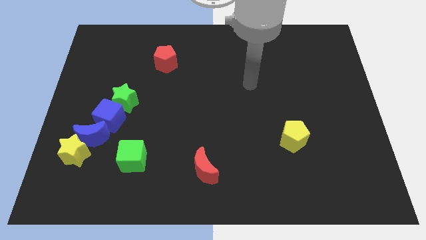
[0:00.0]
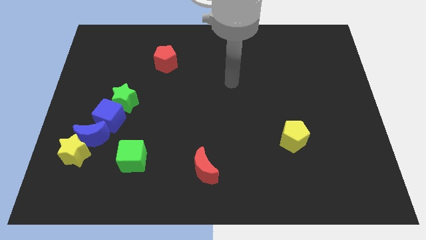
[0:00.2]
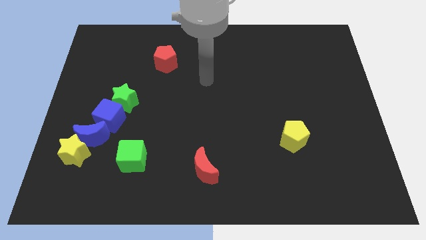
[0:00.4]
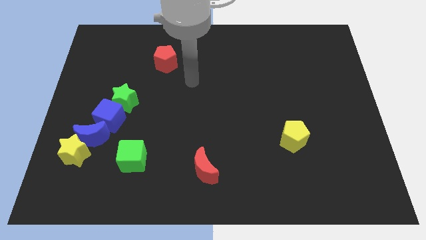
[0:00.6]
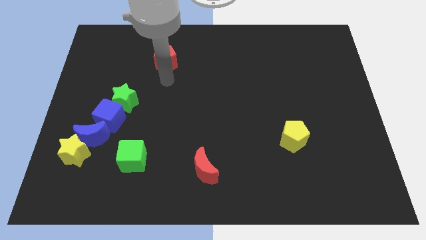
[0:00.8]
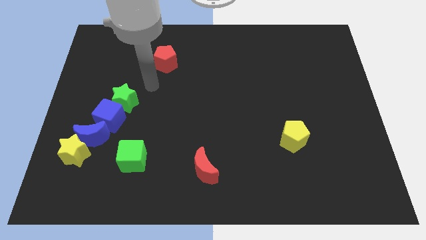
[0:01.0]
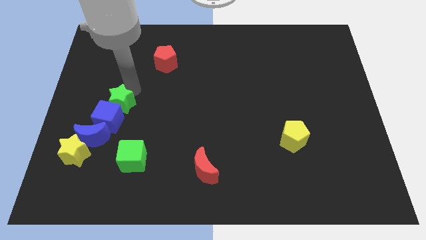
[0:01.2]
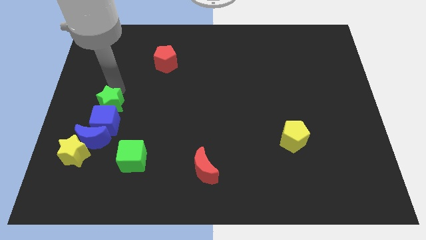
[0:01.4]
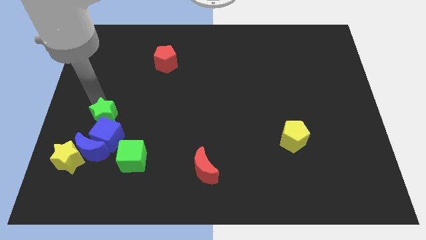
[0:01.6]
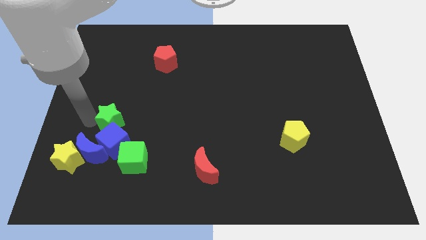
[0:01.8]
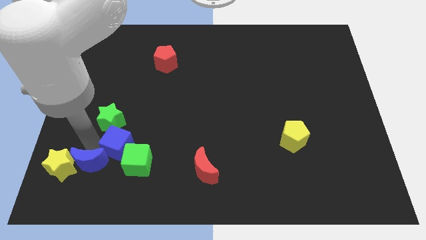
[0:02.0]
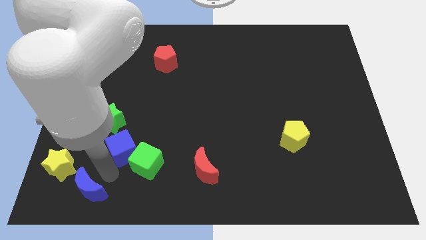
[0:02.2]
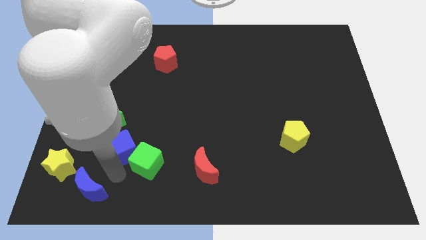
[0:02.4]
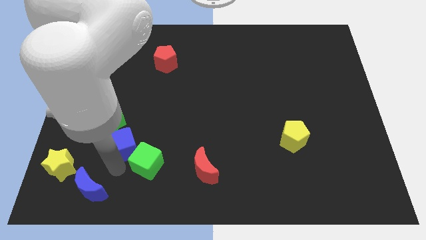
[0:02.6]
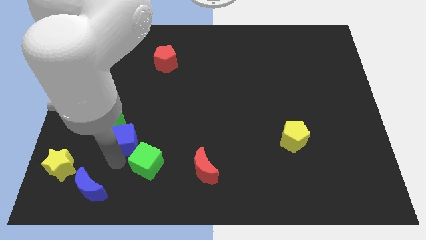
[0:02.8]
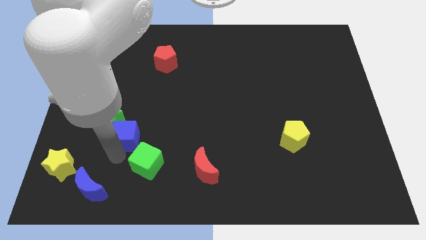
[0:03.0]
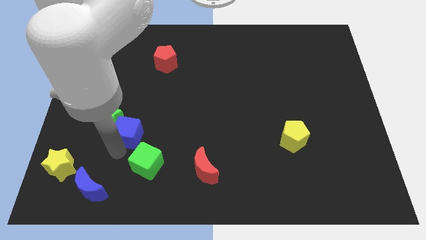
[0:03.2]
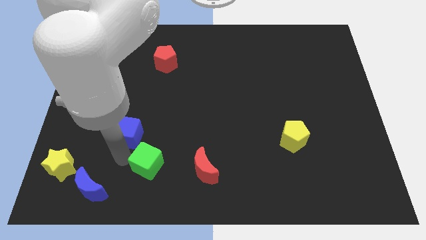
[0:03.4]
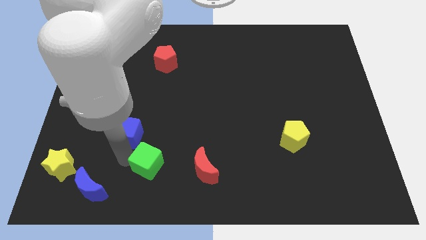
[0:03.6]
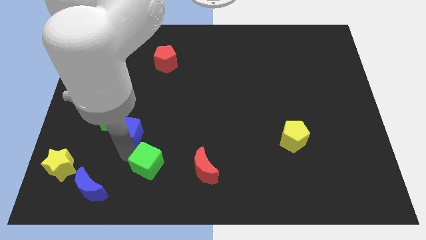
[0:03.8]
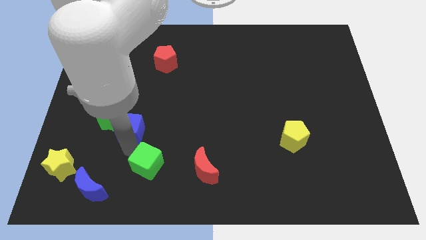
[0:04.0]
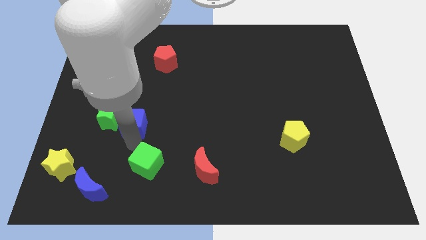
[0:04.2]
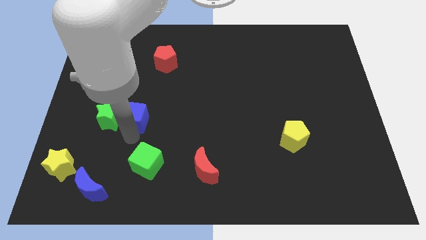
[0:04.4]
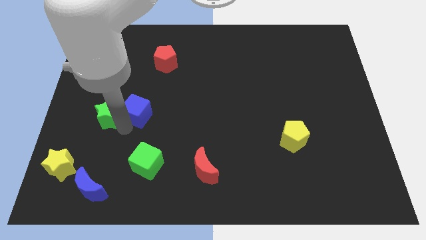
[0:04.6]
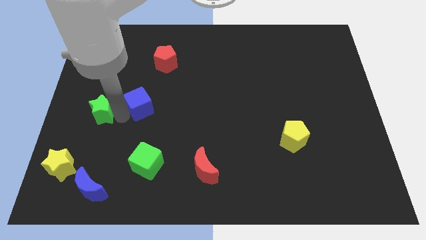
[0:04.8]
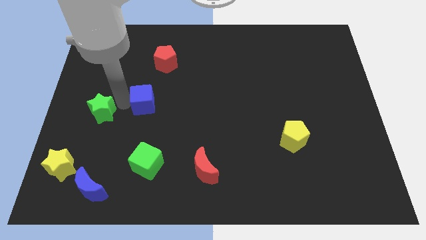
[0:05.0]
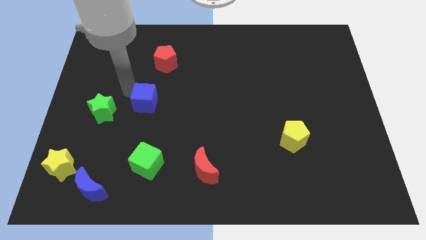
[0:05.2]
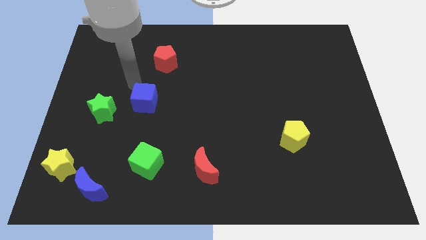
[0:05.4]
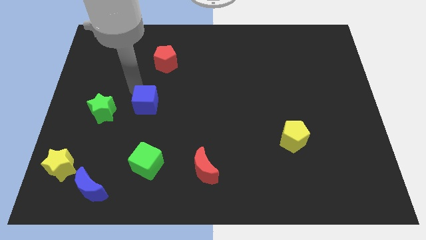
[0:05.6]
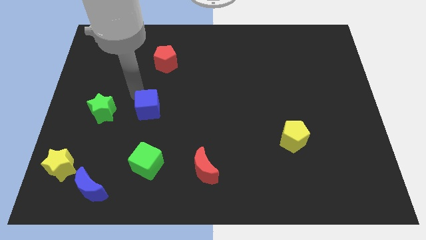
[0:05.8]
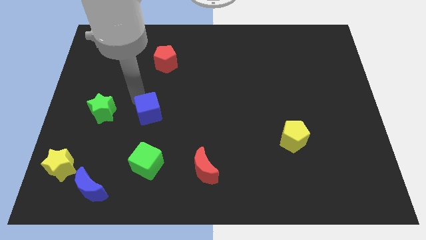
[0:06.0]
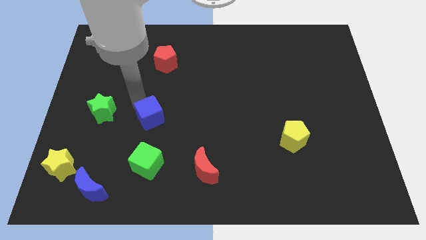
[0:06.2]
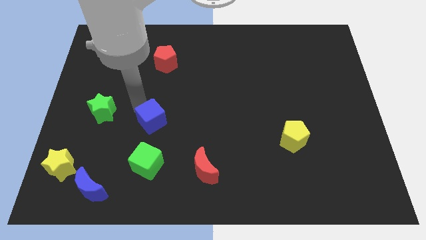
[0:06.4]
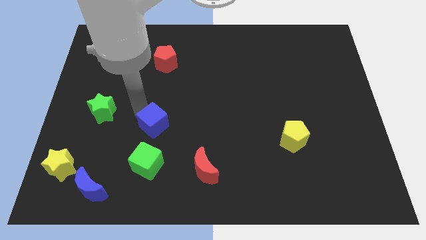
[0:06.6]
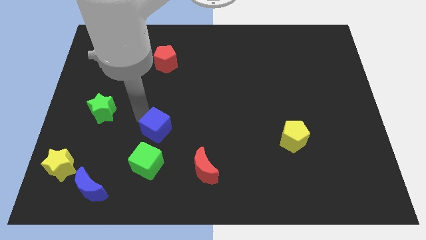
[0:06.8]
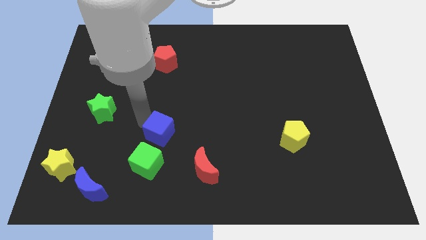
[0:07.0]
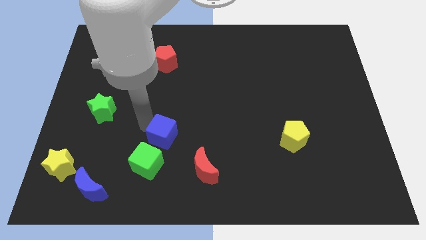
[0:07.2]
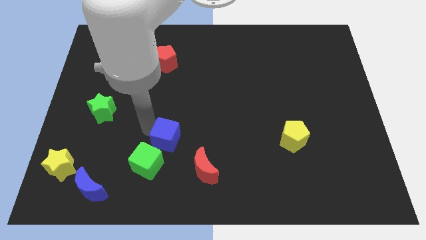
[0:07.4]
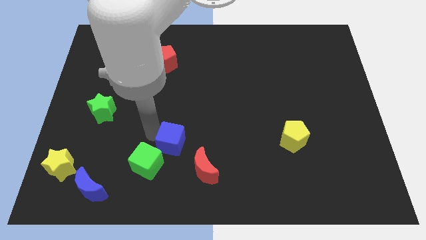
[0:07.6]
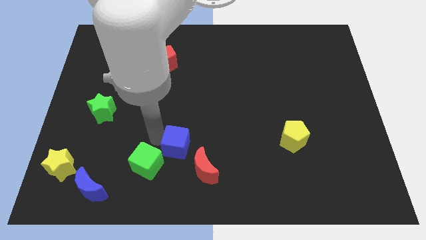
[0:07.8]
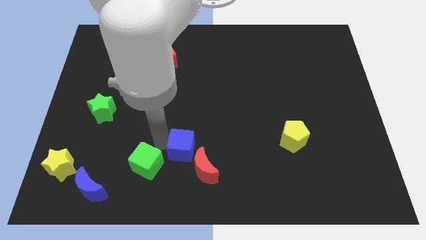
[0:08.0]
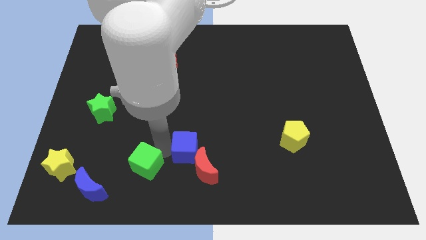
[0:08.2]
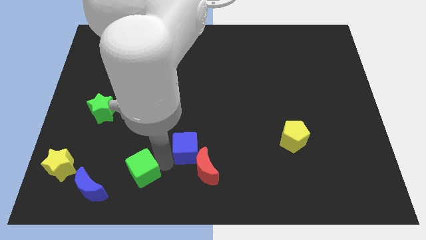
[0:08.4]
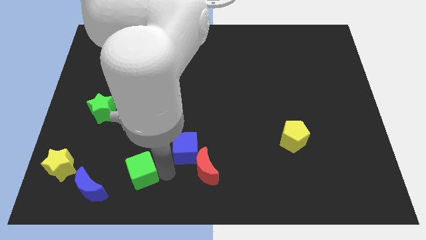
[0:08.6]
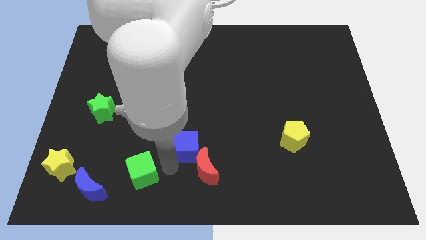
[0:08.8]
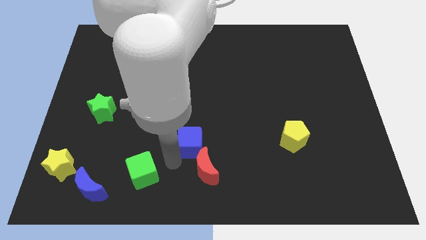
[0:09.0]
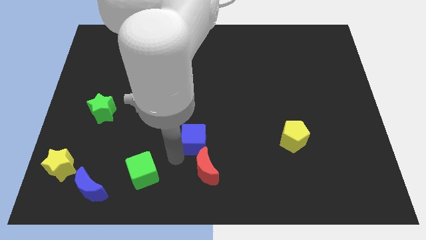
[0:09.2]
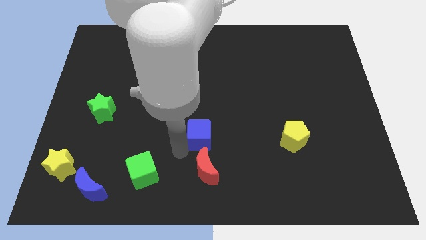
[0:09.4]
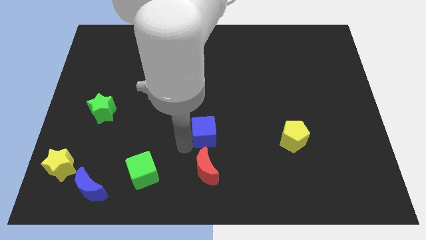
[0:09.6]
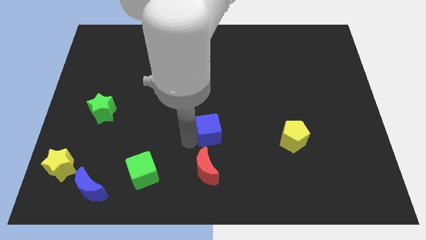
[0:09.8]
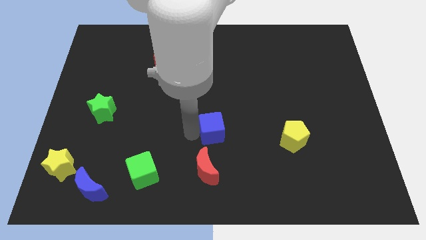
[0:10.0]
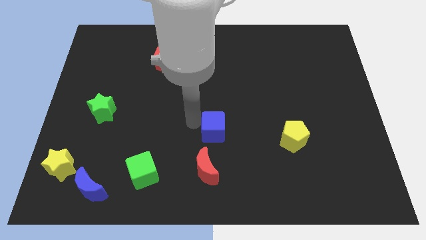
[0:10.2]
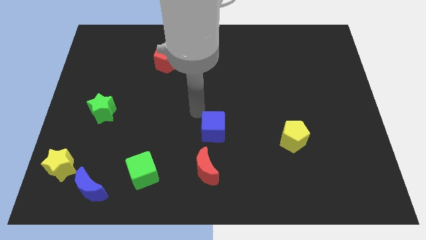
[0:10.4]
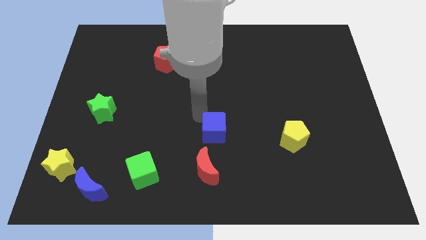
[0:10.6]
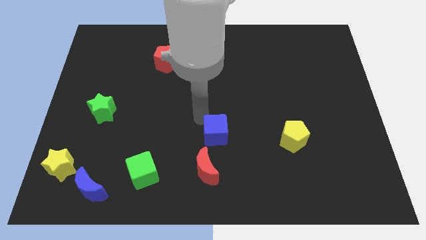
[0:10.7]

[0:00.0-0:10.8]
push the blue cube to the top right side of the red moon

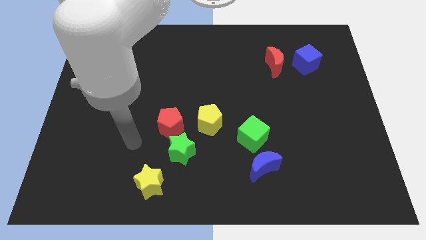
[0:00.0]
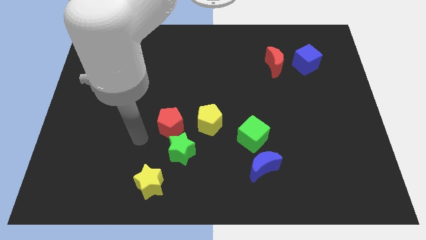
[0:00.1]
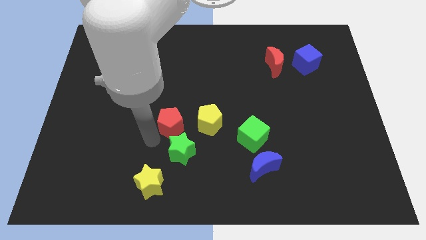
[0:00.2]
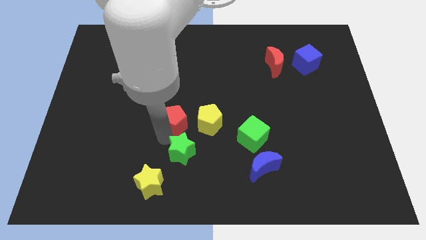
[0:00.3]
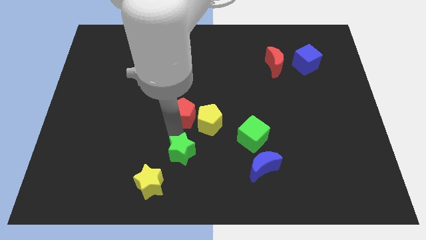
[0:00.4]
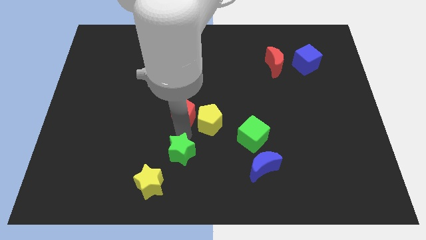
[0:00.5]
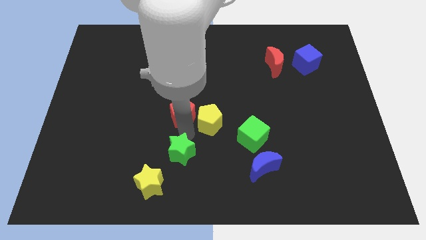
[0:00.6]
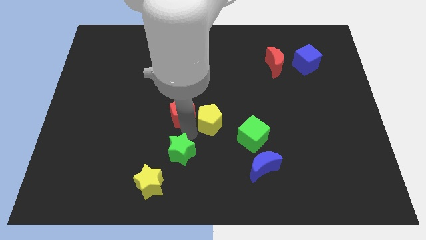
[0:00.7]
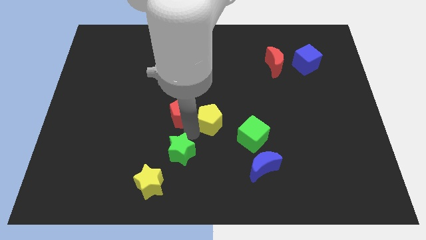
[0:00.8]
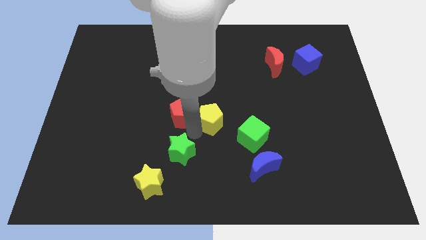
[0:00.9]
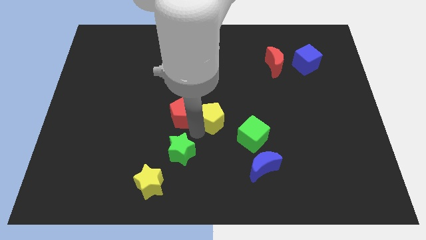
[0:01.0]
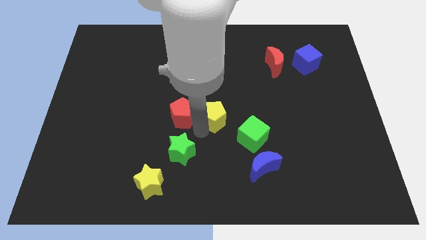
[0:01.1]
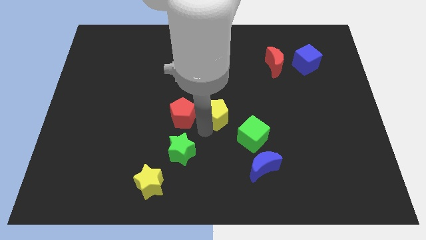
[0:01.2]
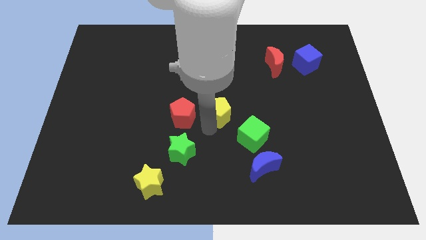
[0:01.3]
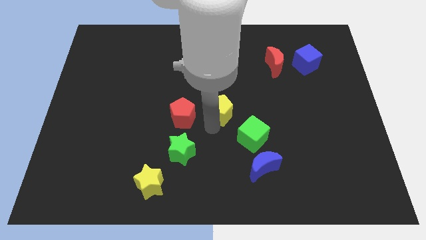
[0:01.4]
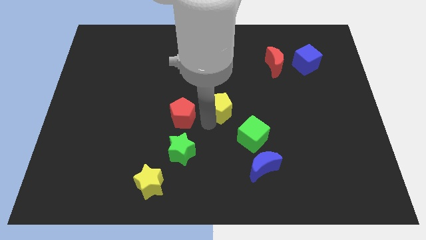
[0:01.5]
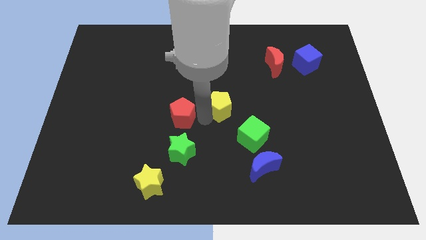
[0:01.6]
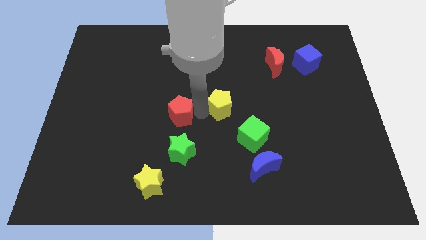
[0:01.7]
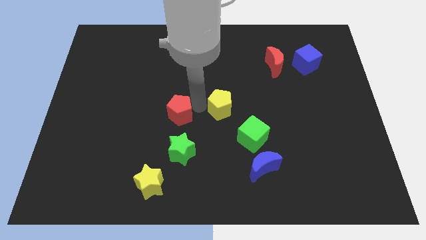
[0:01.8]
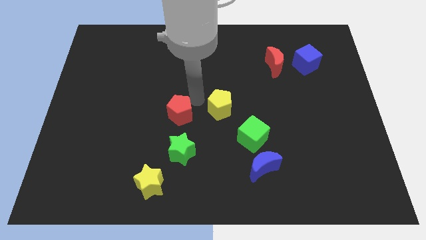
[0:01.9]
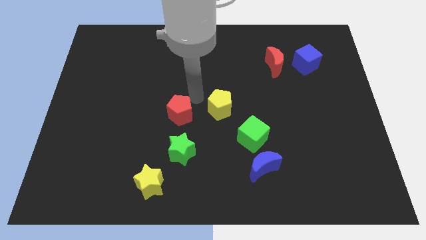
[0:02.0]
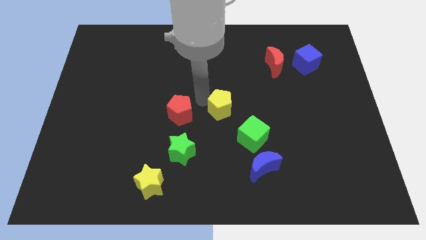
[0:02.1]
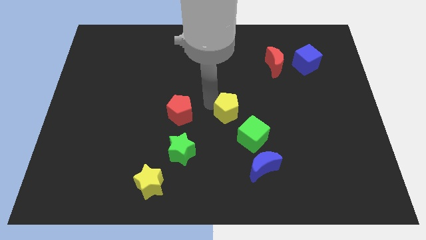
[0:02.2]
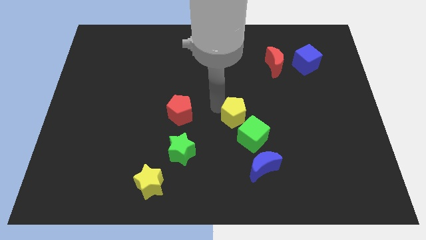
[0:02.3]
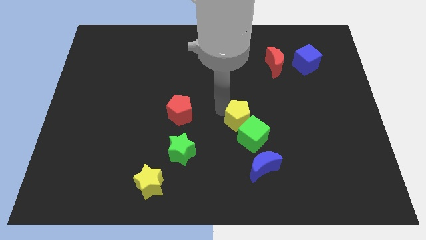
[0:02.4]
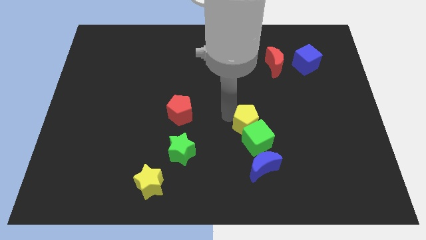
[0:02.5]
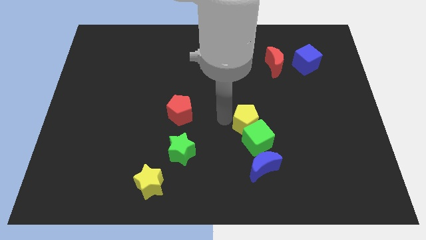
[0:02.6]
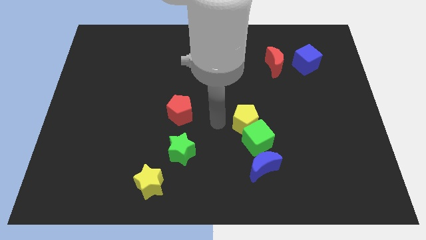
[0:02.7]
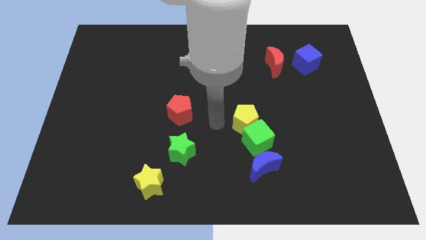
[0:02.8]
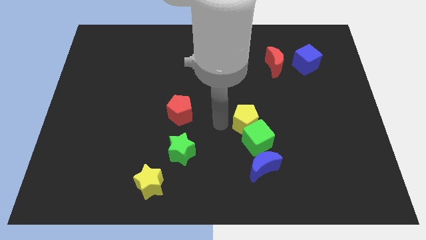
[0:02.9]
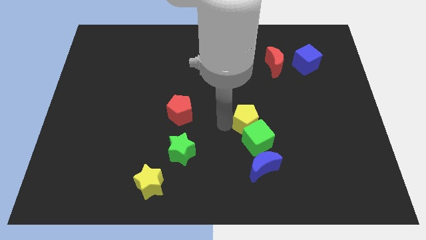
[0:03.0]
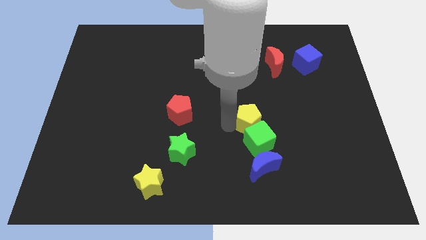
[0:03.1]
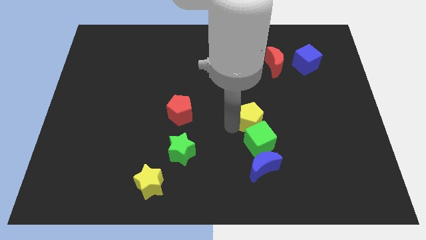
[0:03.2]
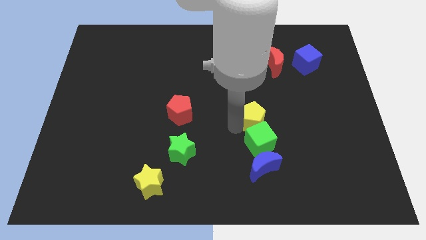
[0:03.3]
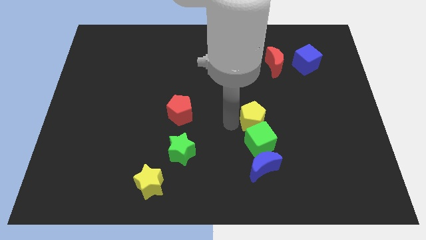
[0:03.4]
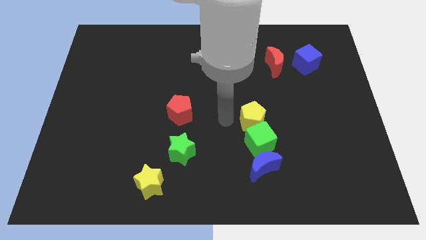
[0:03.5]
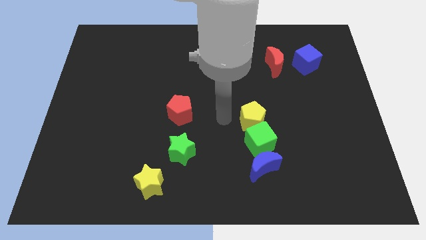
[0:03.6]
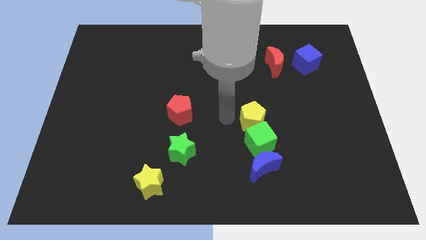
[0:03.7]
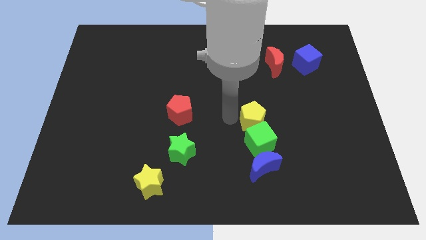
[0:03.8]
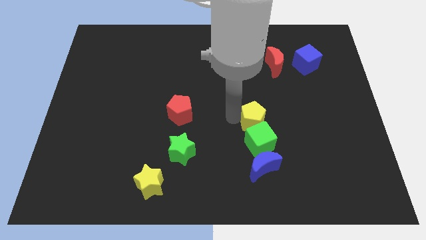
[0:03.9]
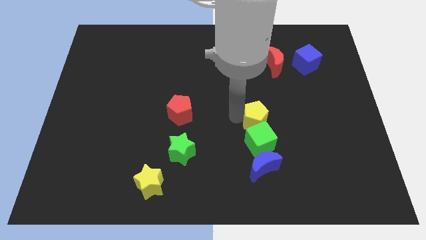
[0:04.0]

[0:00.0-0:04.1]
slide the yellow pentagon diagonally up and to the right of the green cube
